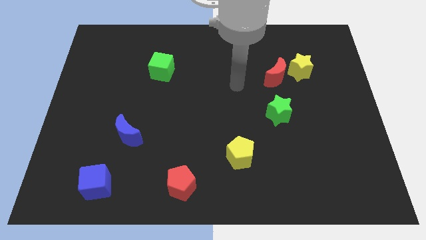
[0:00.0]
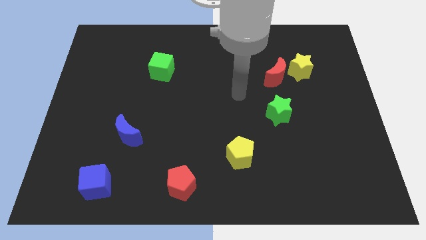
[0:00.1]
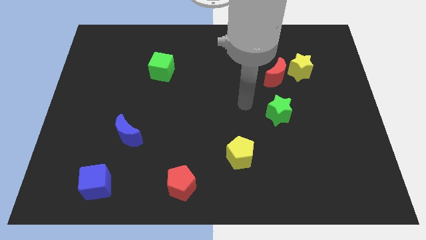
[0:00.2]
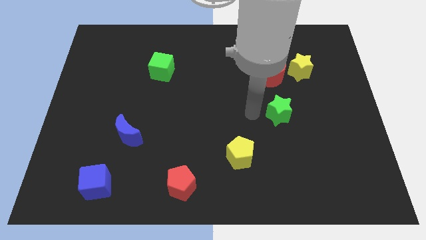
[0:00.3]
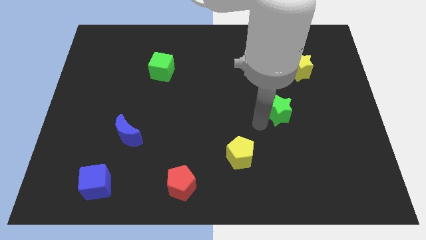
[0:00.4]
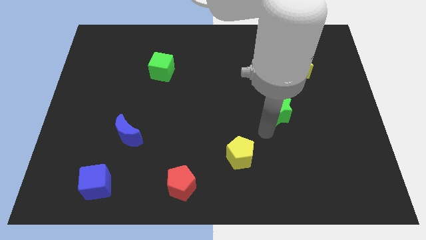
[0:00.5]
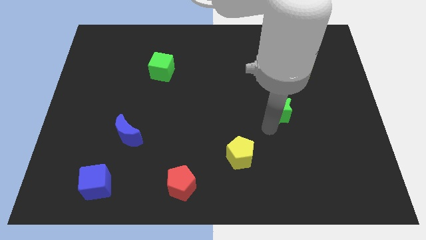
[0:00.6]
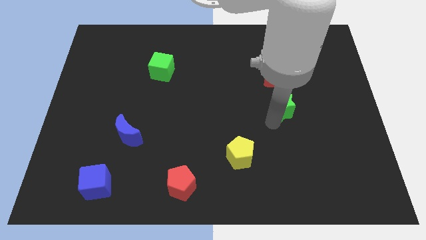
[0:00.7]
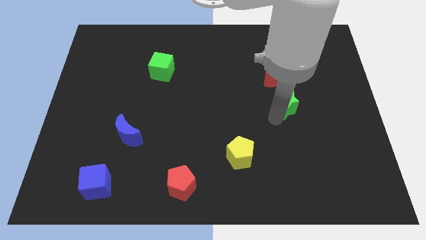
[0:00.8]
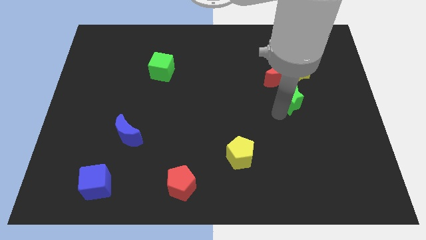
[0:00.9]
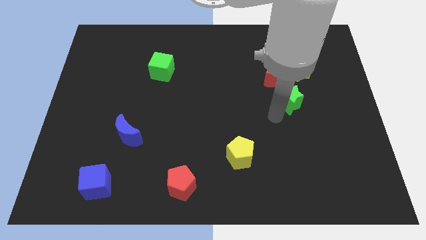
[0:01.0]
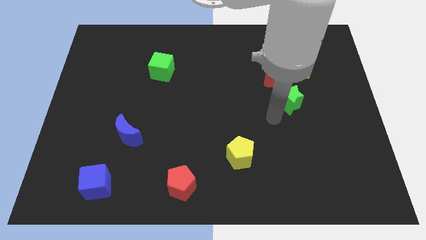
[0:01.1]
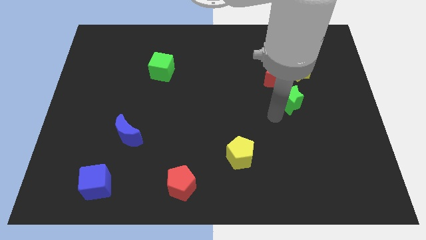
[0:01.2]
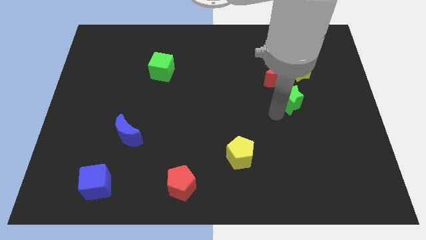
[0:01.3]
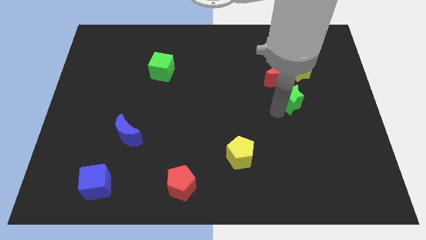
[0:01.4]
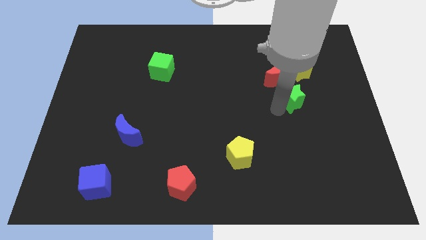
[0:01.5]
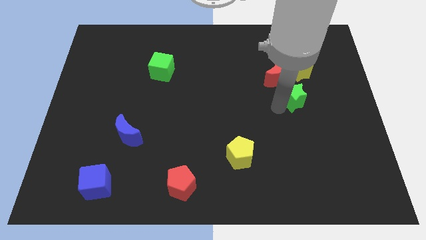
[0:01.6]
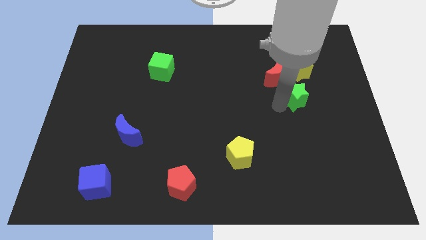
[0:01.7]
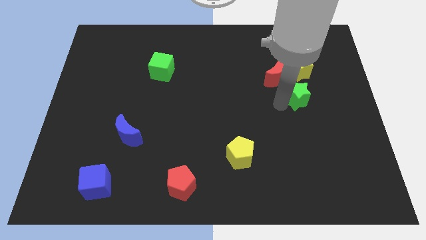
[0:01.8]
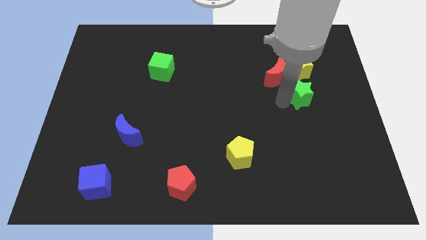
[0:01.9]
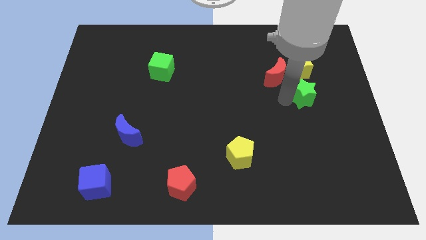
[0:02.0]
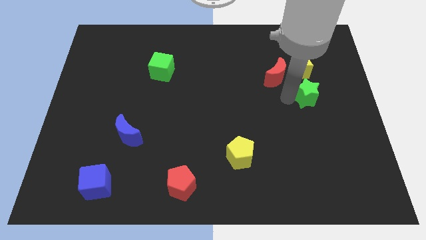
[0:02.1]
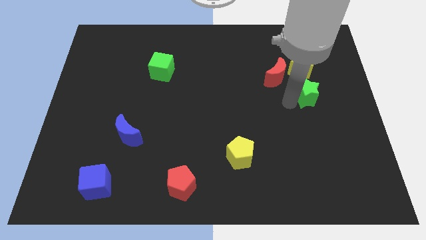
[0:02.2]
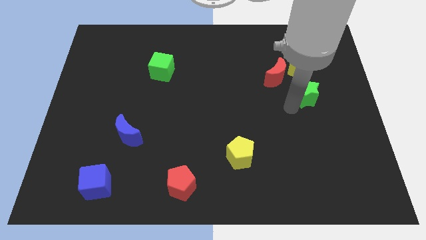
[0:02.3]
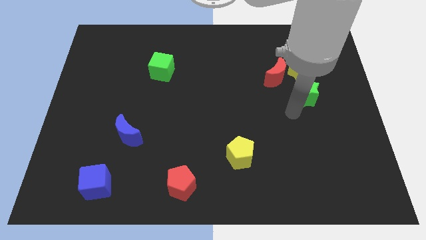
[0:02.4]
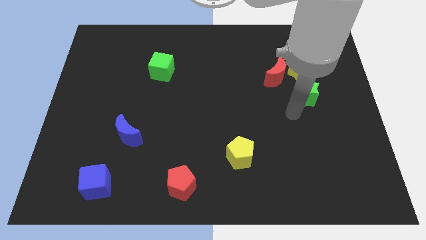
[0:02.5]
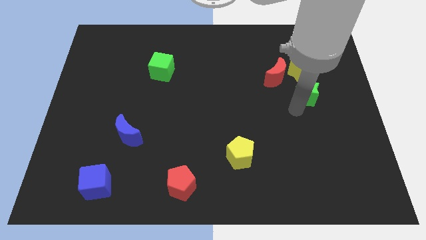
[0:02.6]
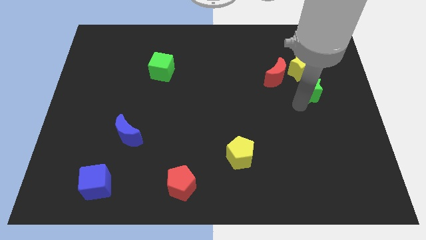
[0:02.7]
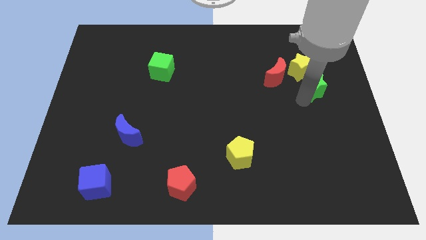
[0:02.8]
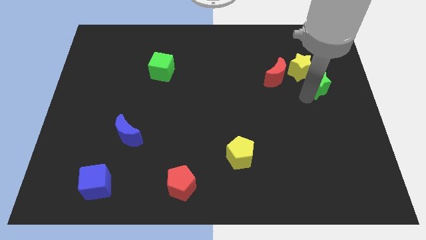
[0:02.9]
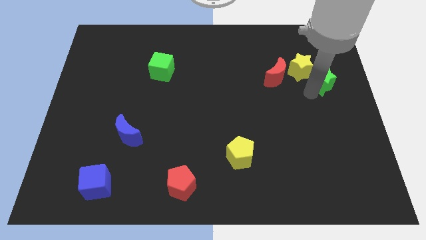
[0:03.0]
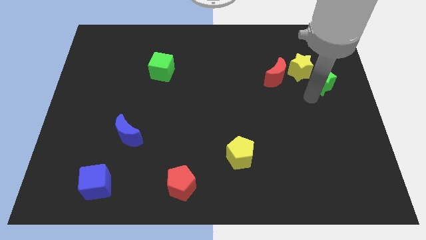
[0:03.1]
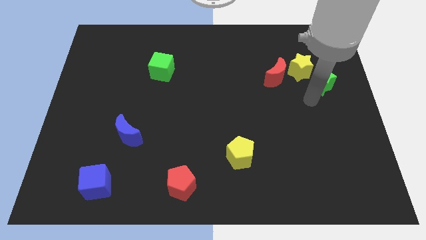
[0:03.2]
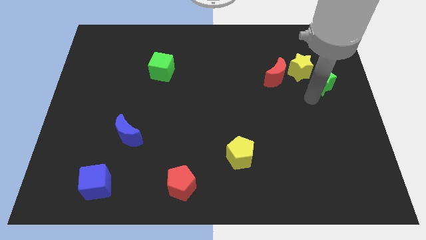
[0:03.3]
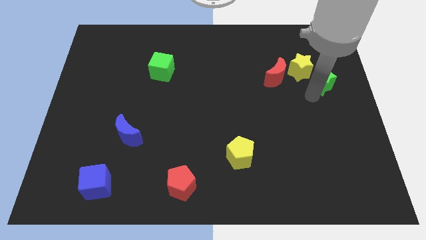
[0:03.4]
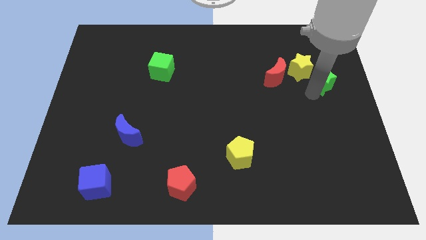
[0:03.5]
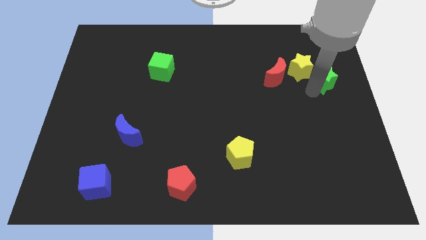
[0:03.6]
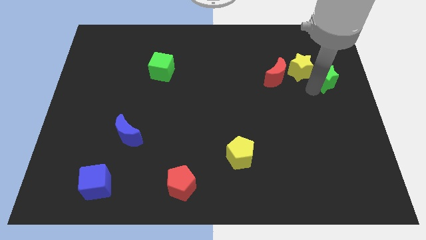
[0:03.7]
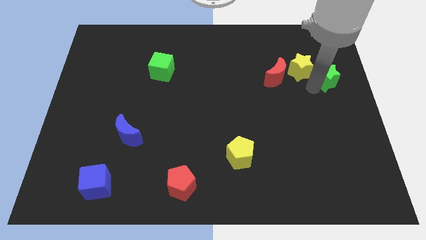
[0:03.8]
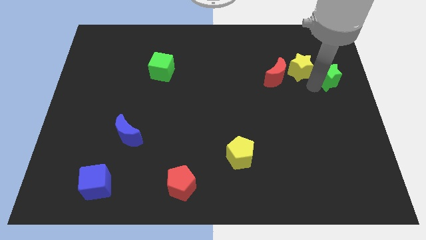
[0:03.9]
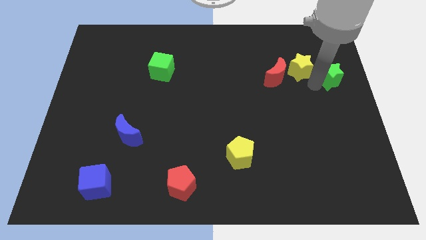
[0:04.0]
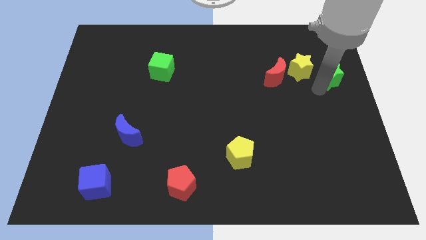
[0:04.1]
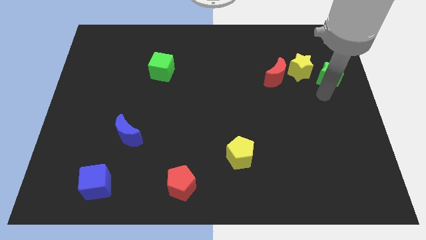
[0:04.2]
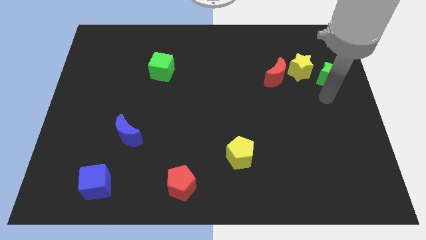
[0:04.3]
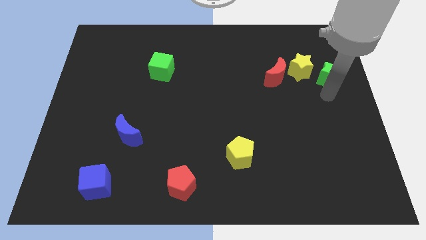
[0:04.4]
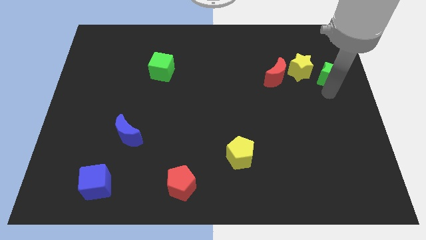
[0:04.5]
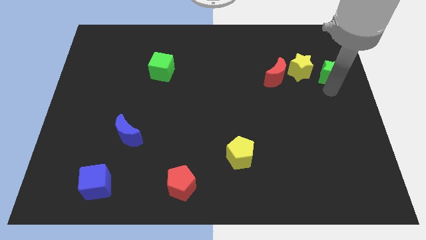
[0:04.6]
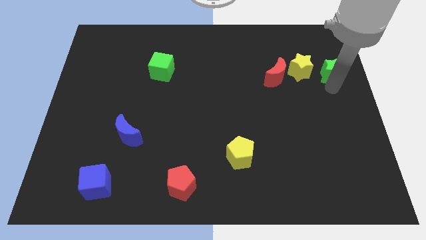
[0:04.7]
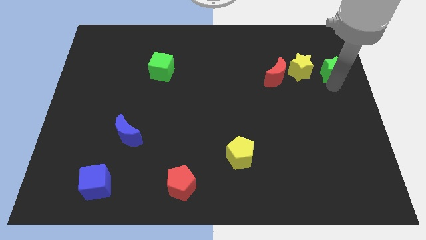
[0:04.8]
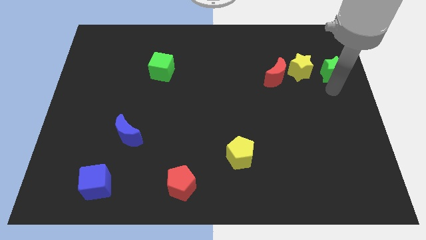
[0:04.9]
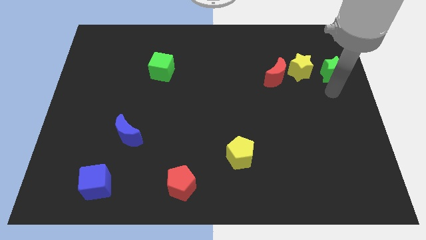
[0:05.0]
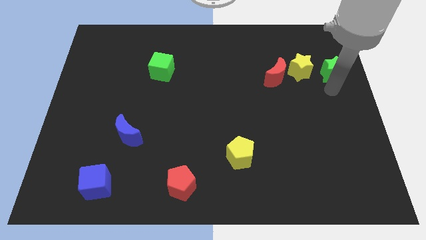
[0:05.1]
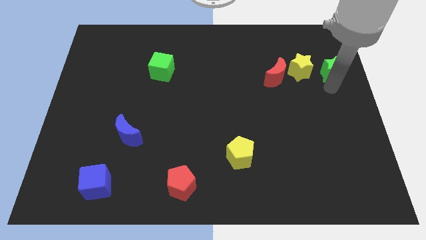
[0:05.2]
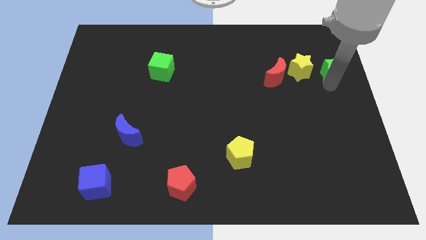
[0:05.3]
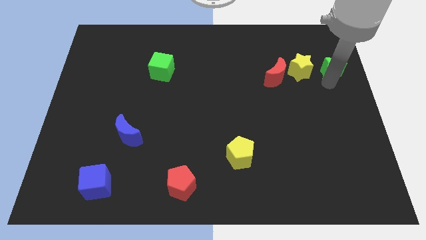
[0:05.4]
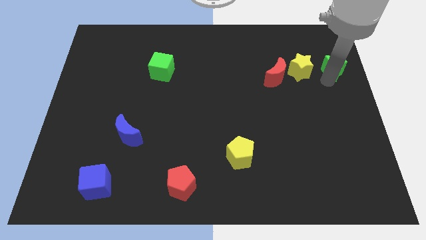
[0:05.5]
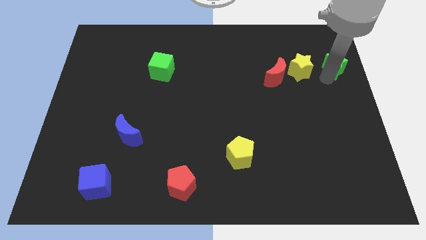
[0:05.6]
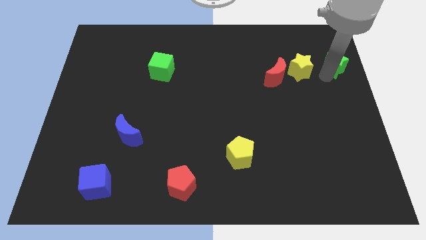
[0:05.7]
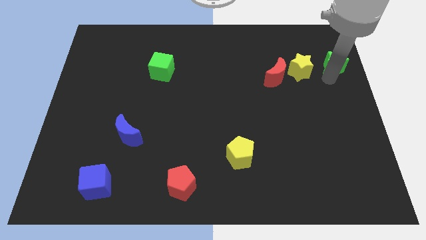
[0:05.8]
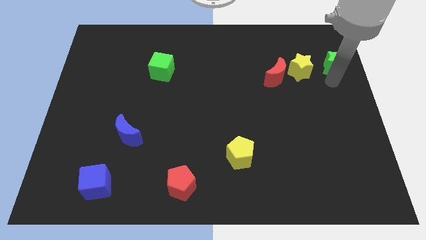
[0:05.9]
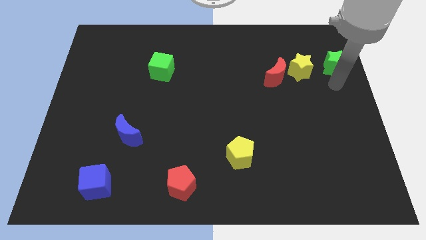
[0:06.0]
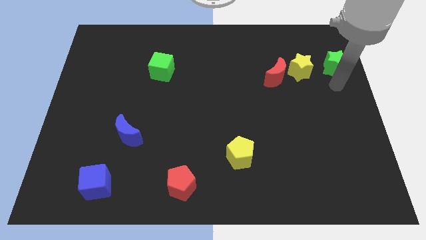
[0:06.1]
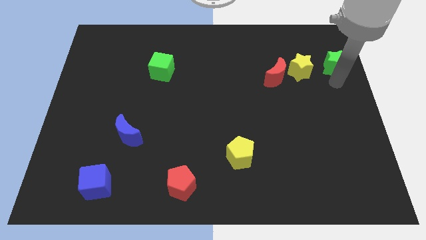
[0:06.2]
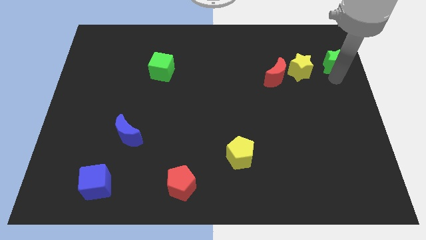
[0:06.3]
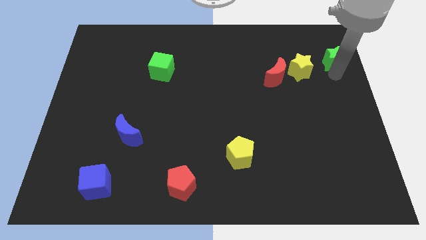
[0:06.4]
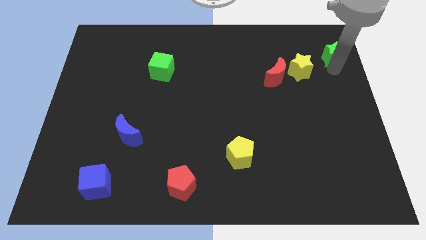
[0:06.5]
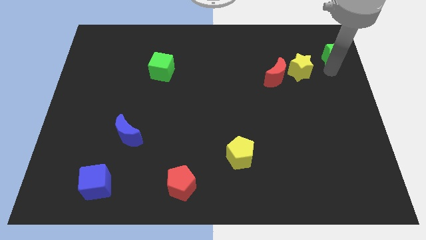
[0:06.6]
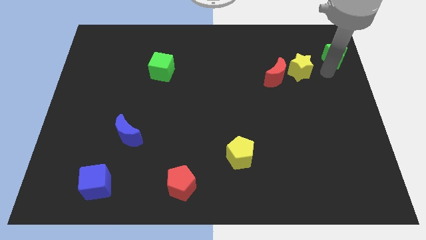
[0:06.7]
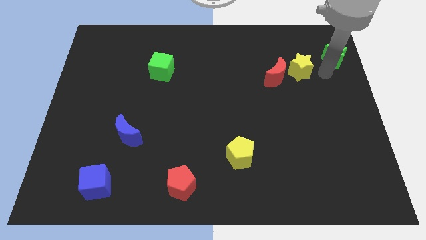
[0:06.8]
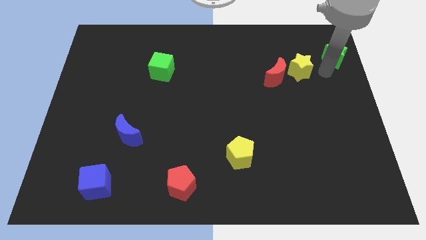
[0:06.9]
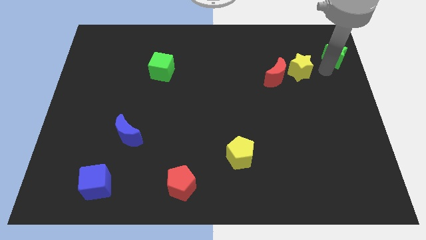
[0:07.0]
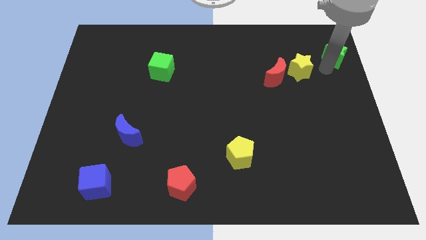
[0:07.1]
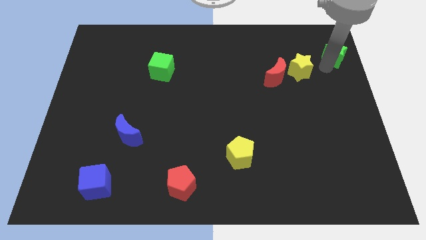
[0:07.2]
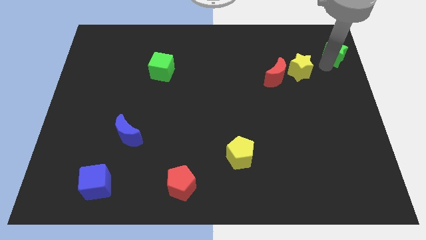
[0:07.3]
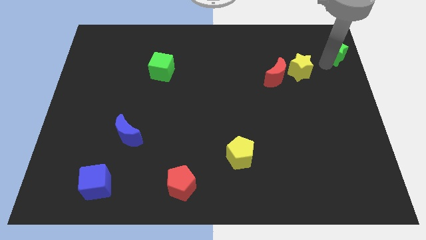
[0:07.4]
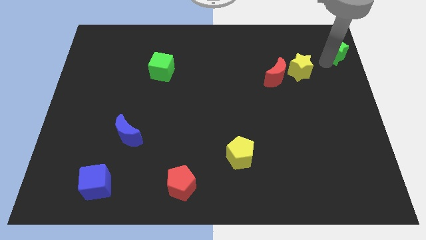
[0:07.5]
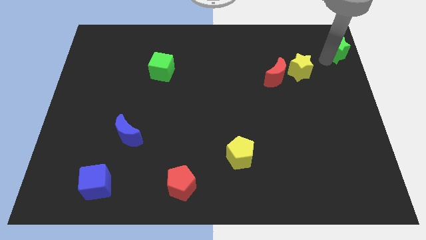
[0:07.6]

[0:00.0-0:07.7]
move the green star to the upper right corner
